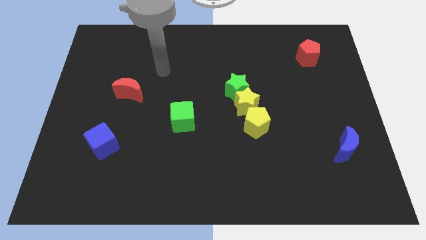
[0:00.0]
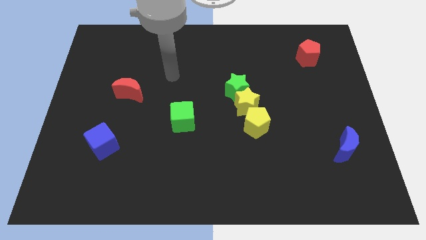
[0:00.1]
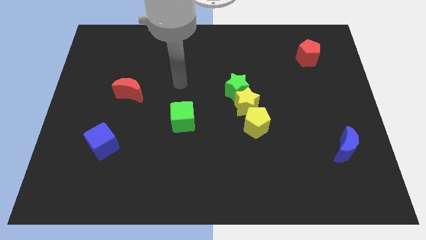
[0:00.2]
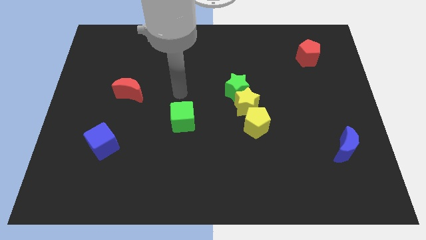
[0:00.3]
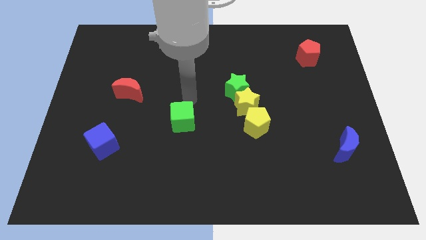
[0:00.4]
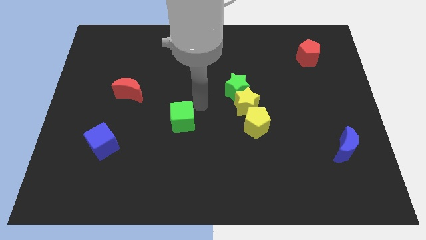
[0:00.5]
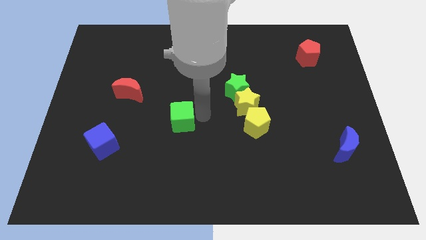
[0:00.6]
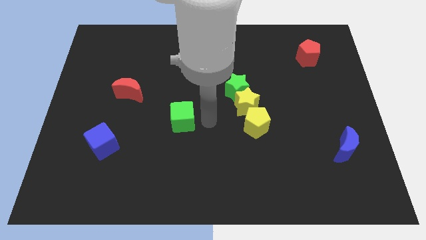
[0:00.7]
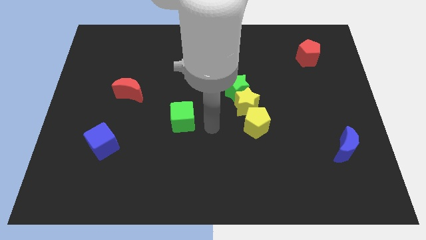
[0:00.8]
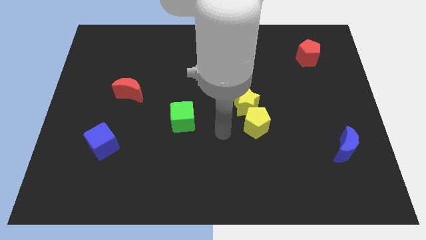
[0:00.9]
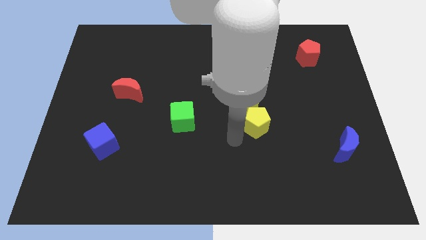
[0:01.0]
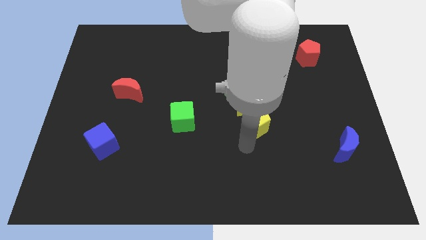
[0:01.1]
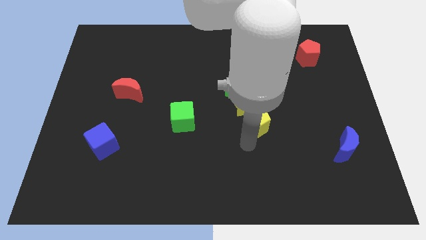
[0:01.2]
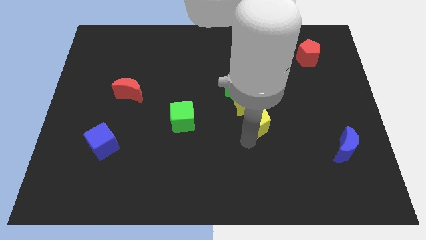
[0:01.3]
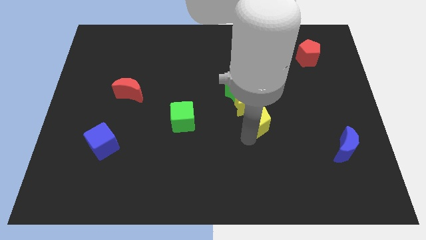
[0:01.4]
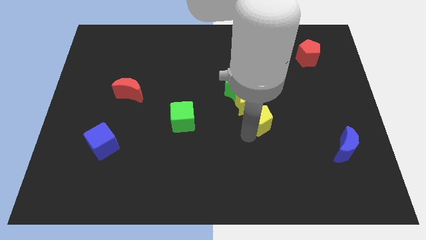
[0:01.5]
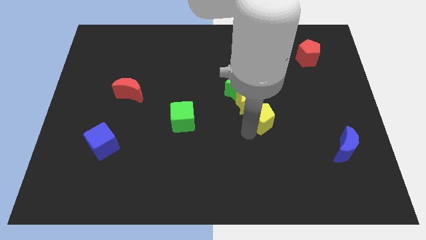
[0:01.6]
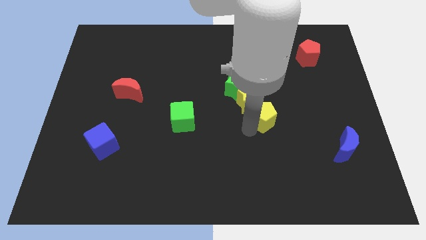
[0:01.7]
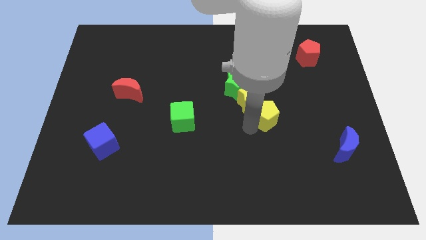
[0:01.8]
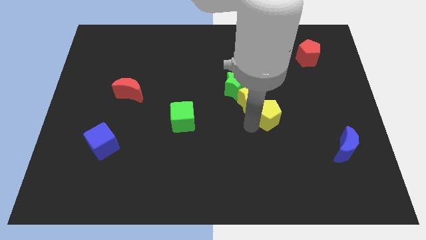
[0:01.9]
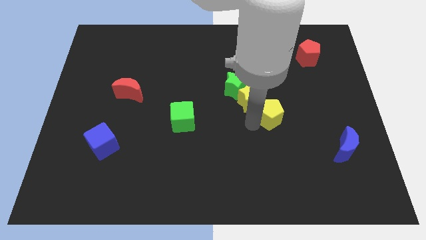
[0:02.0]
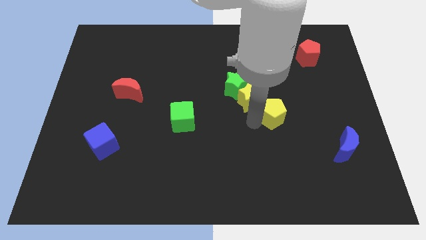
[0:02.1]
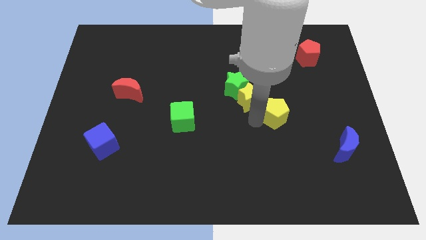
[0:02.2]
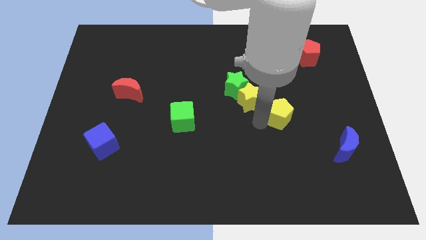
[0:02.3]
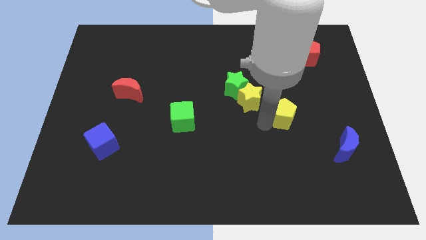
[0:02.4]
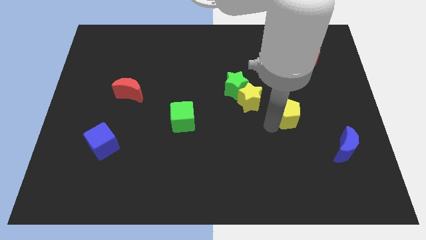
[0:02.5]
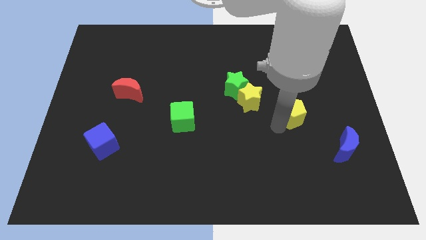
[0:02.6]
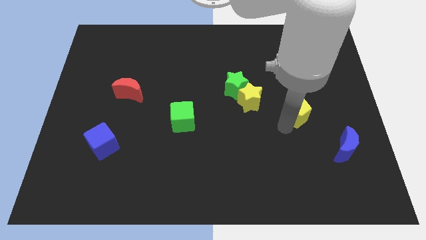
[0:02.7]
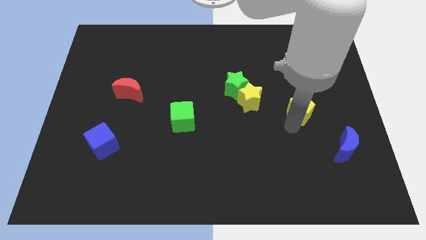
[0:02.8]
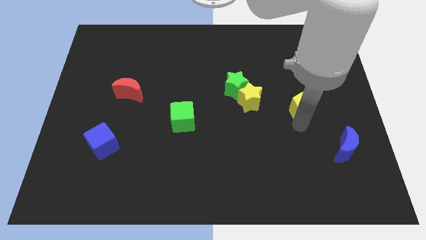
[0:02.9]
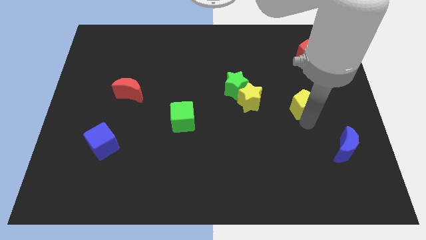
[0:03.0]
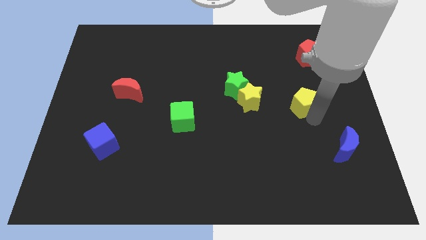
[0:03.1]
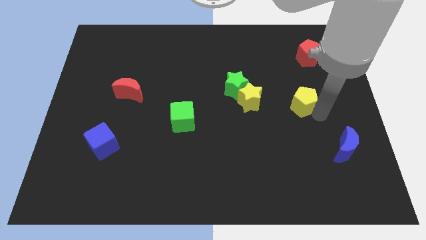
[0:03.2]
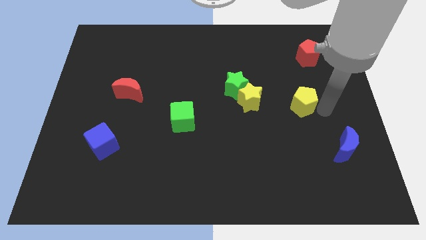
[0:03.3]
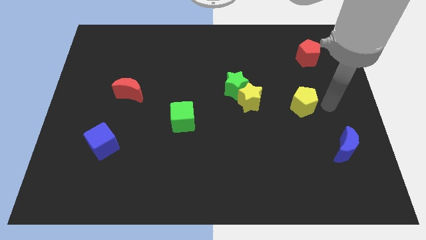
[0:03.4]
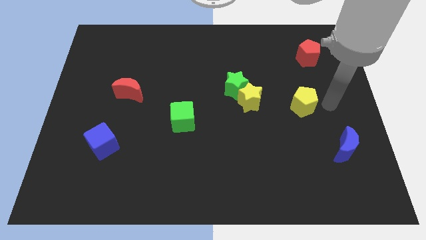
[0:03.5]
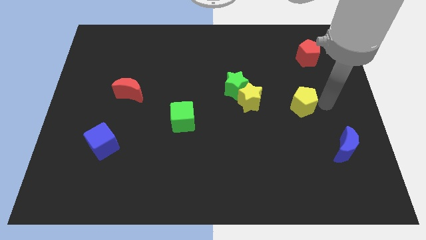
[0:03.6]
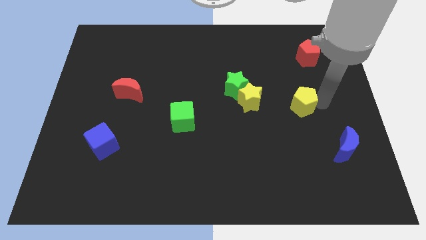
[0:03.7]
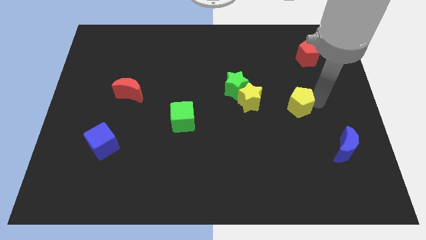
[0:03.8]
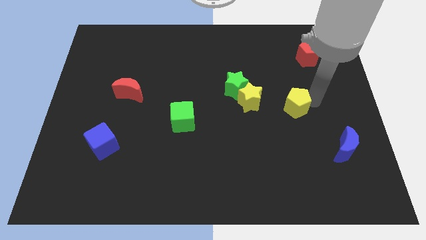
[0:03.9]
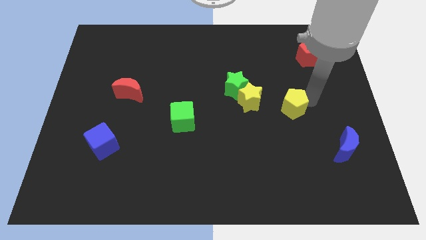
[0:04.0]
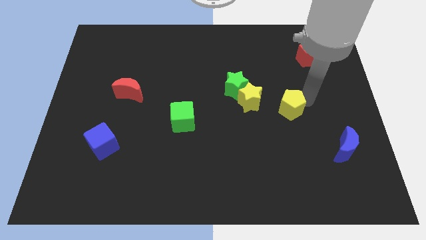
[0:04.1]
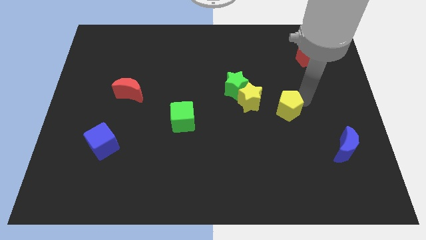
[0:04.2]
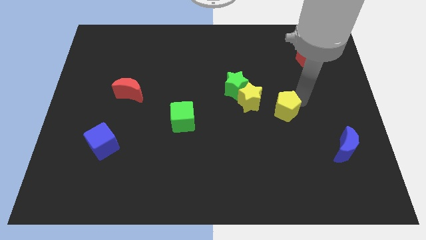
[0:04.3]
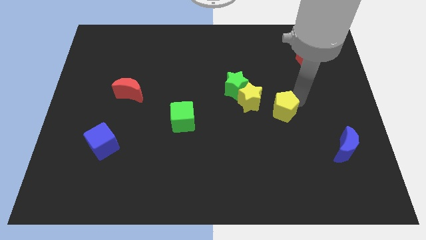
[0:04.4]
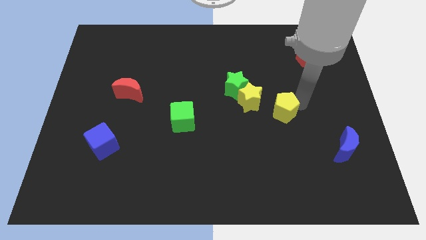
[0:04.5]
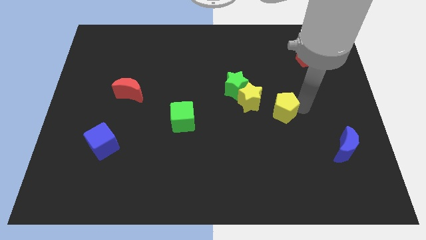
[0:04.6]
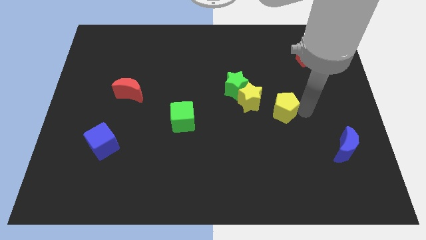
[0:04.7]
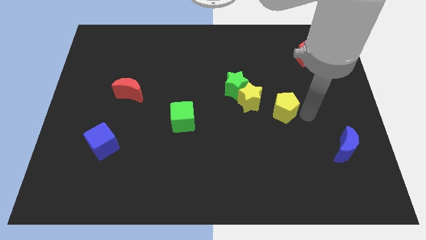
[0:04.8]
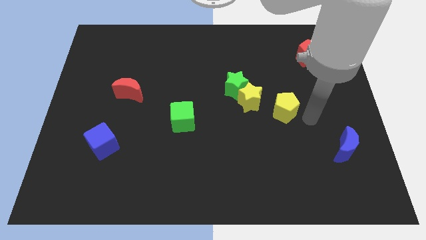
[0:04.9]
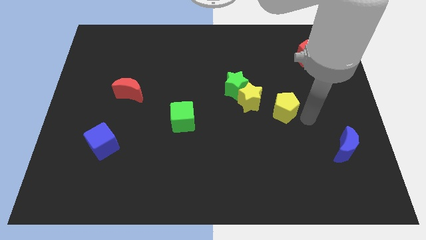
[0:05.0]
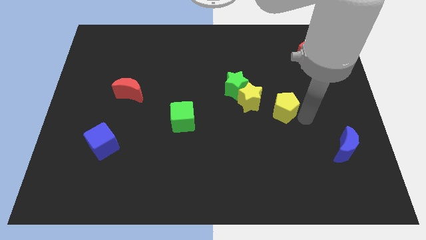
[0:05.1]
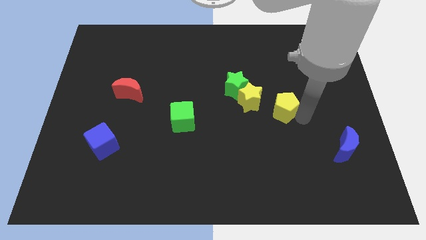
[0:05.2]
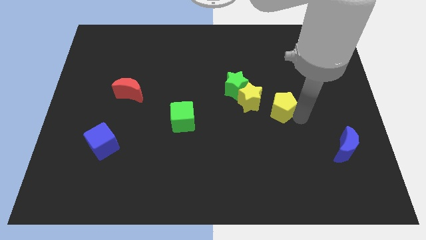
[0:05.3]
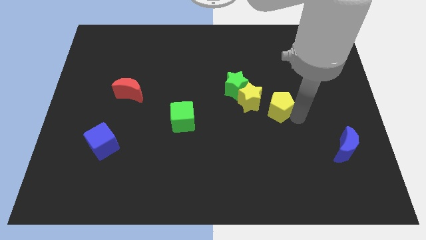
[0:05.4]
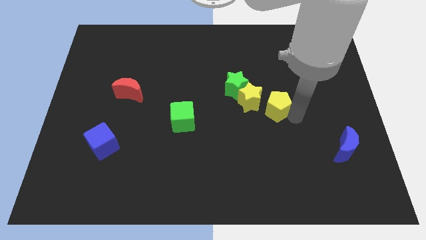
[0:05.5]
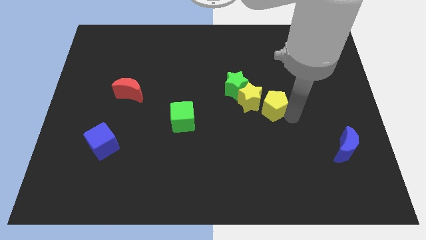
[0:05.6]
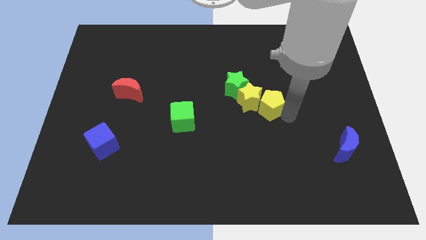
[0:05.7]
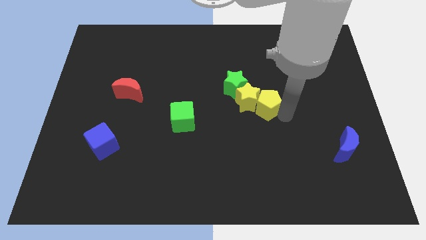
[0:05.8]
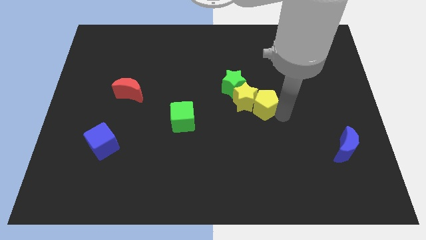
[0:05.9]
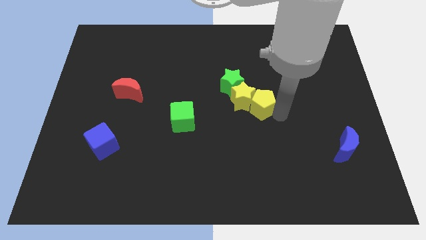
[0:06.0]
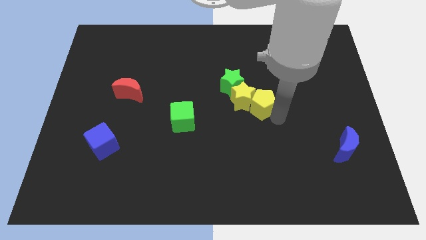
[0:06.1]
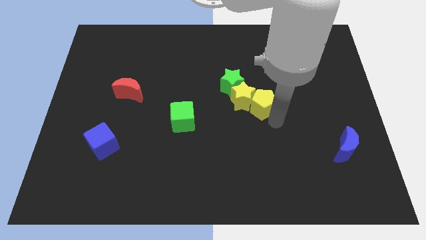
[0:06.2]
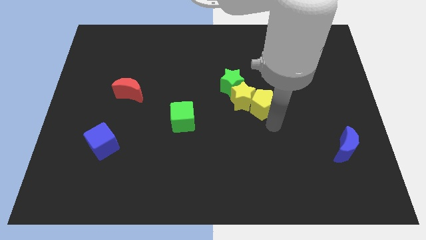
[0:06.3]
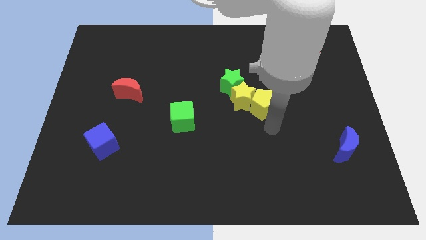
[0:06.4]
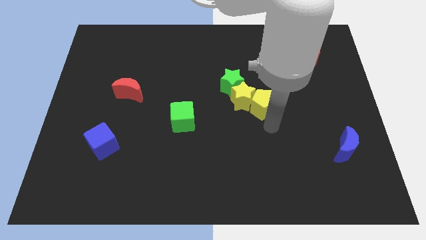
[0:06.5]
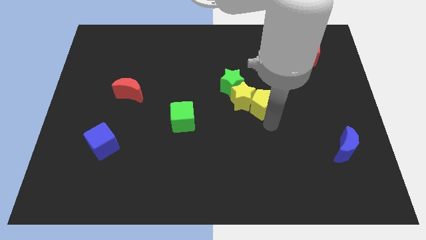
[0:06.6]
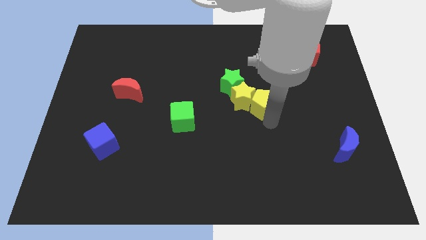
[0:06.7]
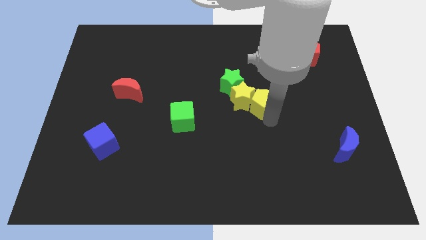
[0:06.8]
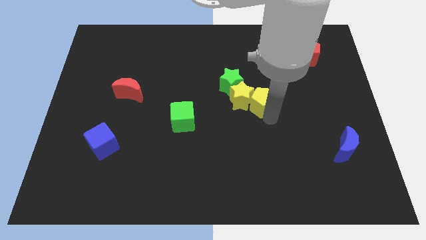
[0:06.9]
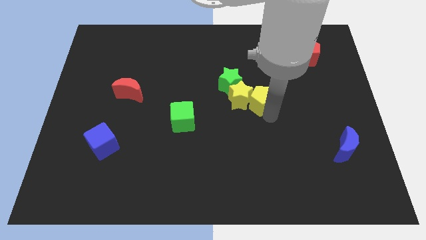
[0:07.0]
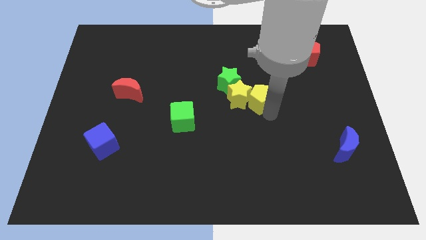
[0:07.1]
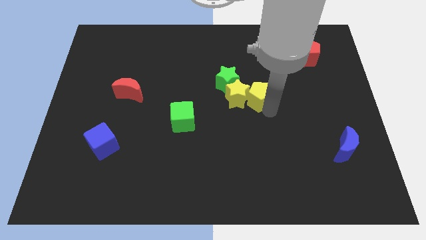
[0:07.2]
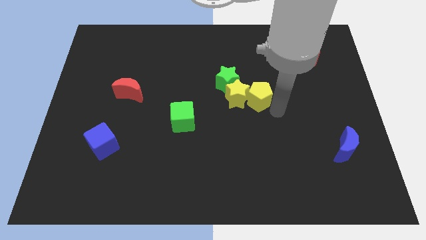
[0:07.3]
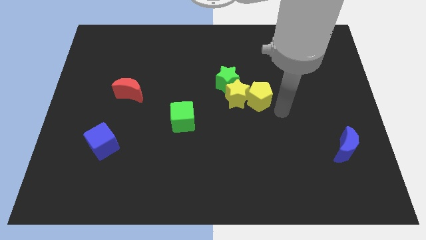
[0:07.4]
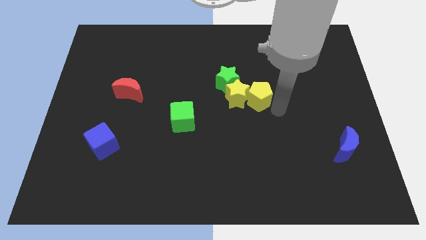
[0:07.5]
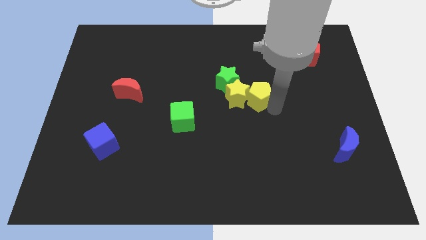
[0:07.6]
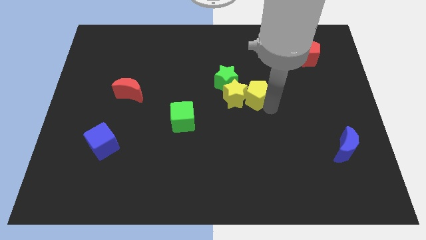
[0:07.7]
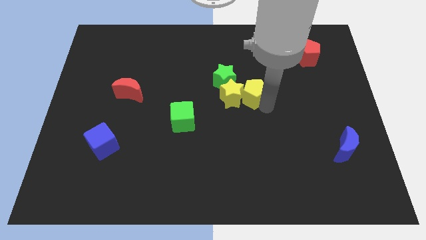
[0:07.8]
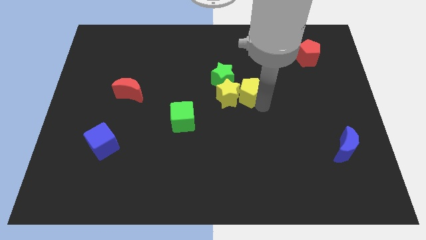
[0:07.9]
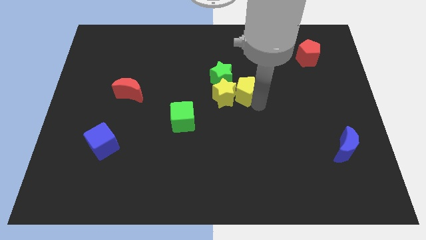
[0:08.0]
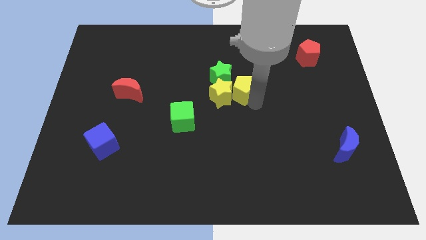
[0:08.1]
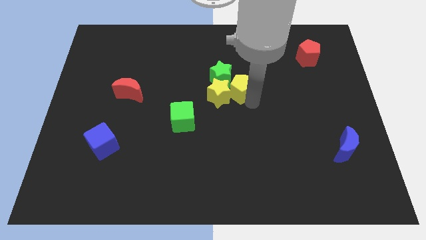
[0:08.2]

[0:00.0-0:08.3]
move the yellow pentagon close to the green star
